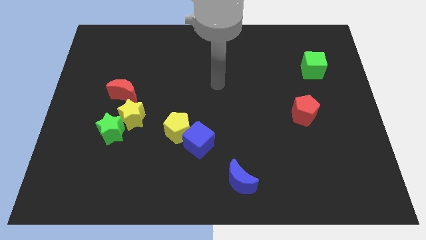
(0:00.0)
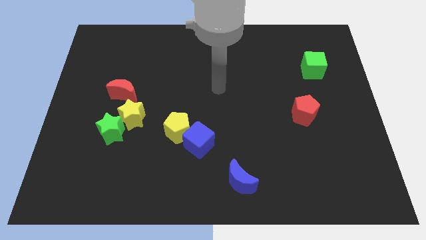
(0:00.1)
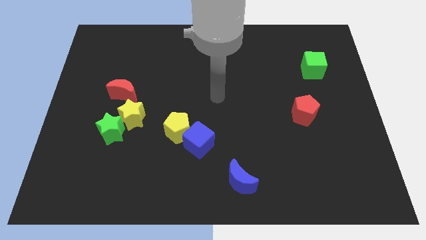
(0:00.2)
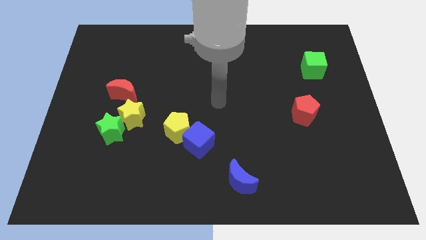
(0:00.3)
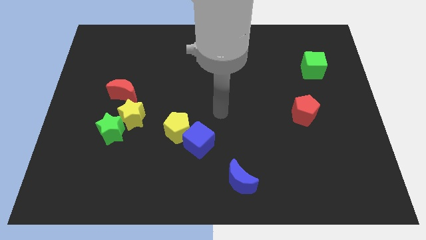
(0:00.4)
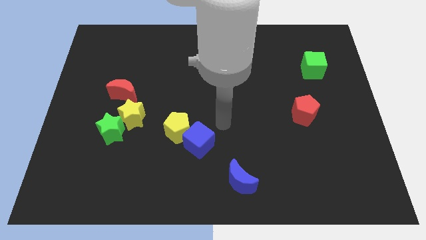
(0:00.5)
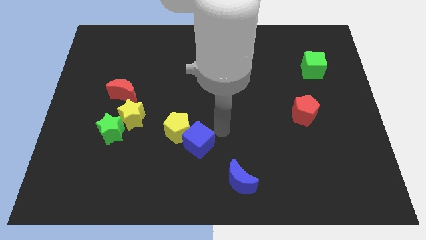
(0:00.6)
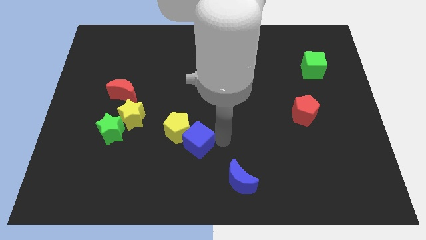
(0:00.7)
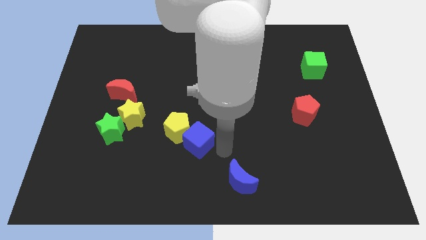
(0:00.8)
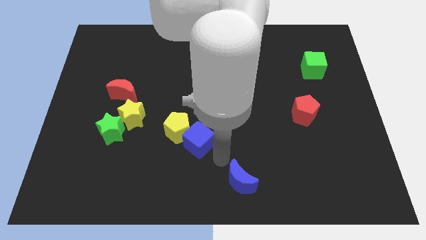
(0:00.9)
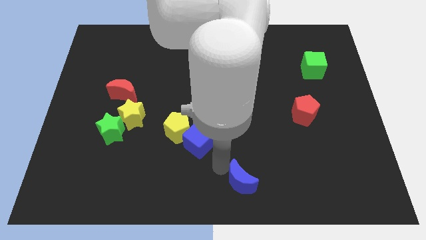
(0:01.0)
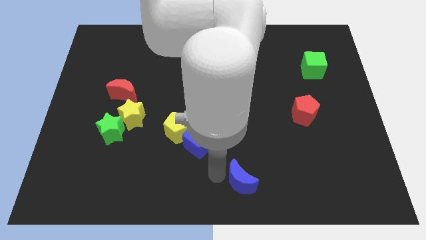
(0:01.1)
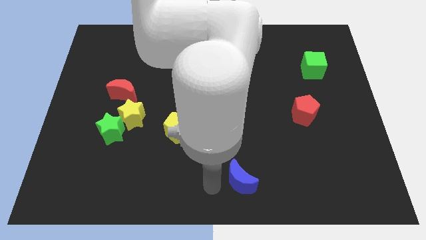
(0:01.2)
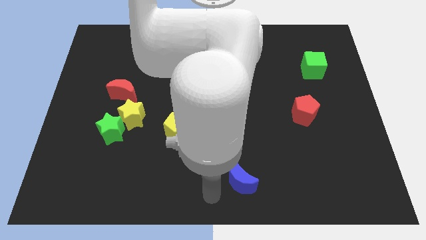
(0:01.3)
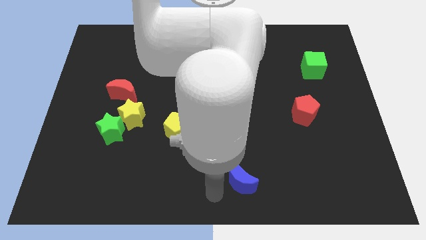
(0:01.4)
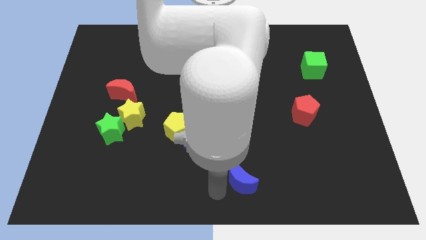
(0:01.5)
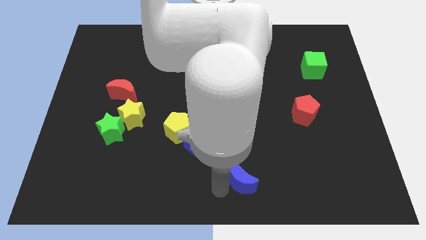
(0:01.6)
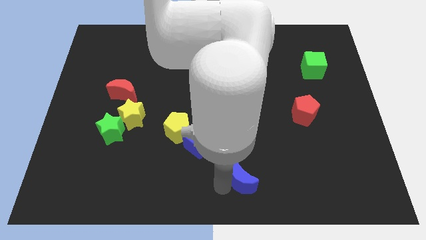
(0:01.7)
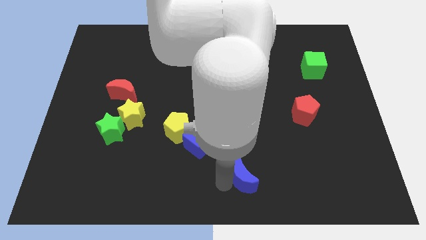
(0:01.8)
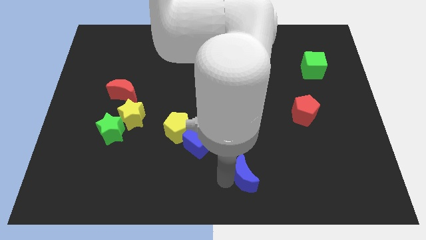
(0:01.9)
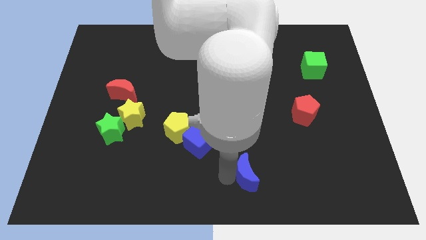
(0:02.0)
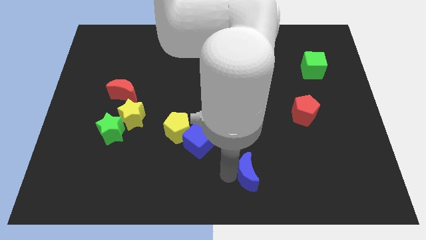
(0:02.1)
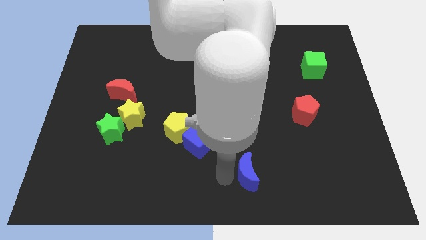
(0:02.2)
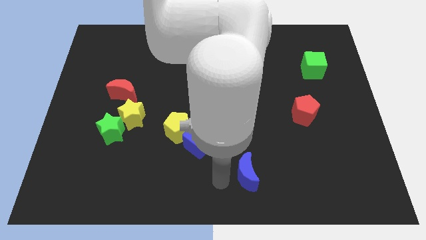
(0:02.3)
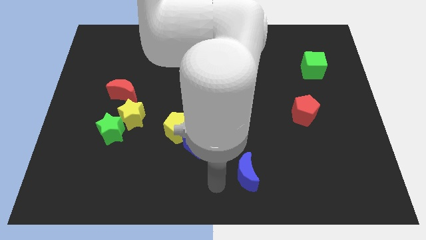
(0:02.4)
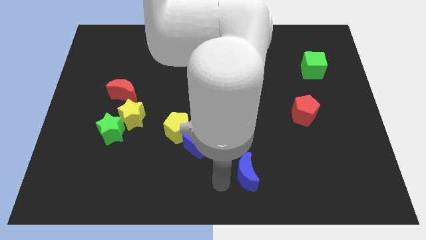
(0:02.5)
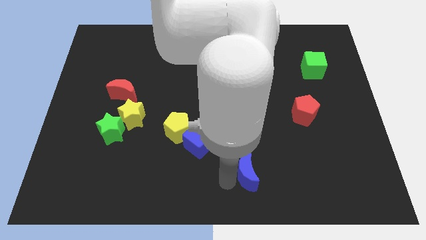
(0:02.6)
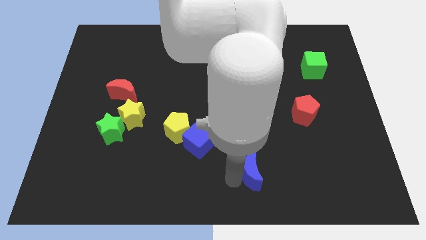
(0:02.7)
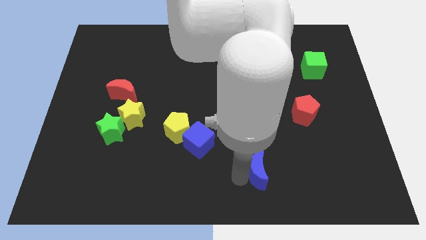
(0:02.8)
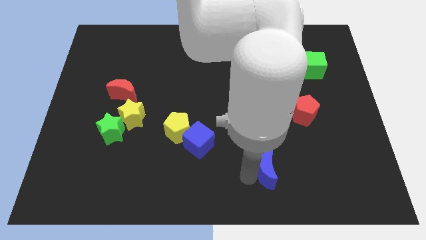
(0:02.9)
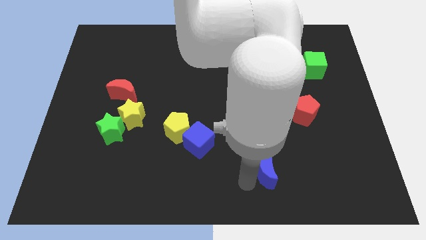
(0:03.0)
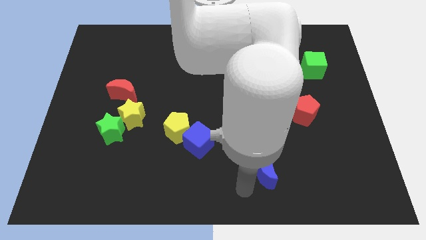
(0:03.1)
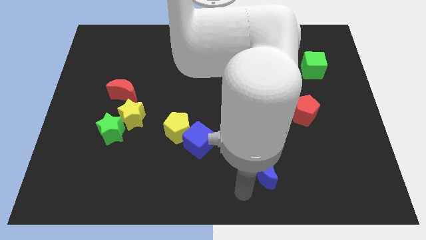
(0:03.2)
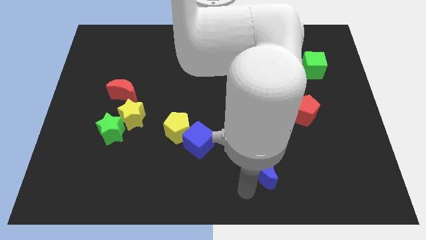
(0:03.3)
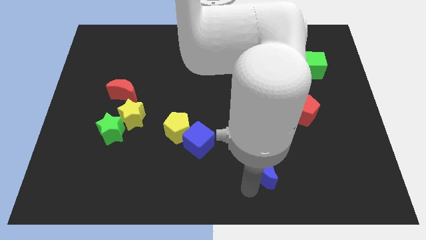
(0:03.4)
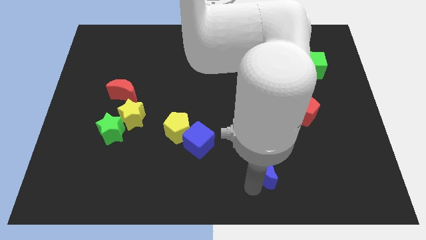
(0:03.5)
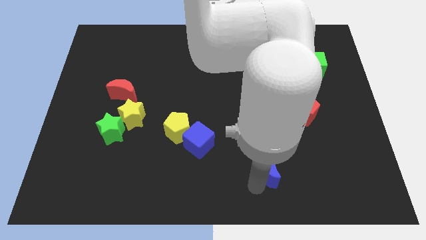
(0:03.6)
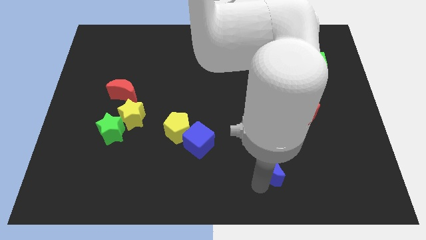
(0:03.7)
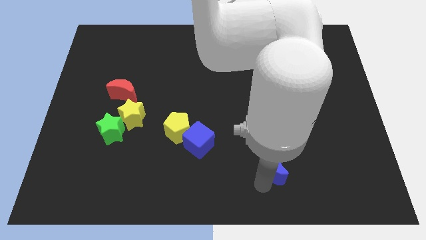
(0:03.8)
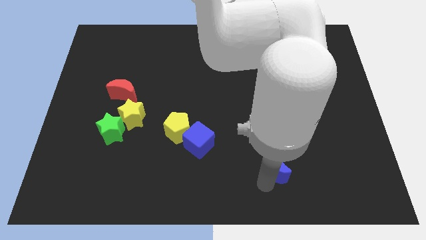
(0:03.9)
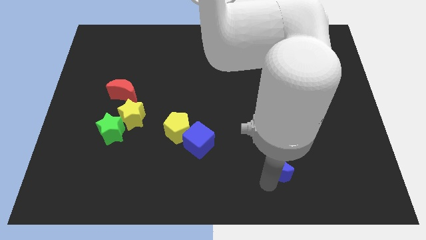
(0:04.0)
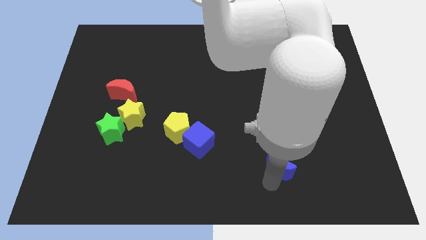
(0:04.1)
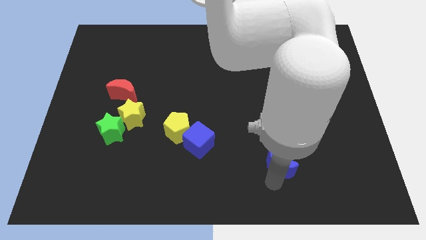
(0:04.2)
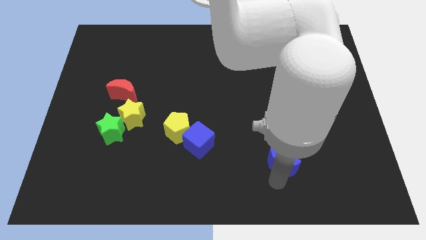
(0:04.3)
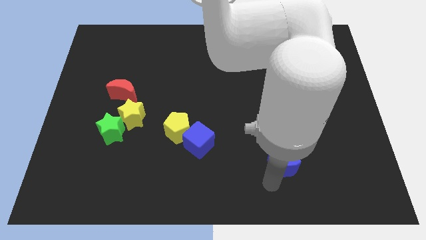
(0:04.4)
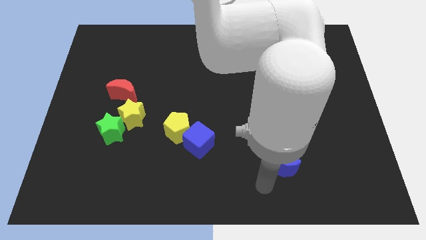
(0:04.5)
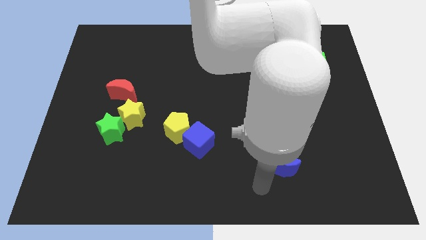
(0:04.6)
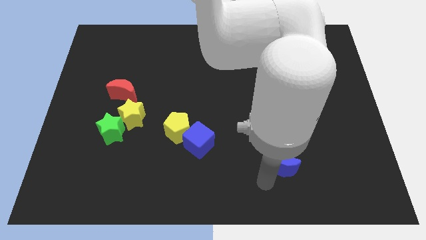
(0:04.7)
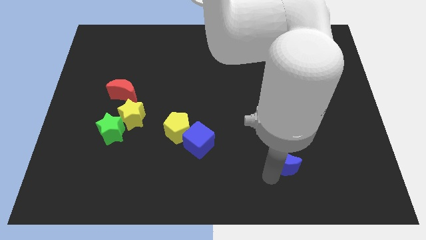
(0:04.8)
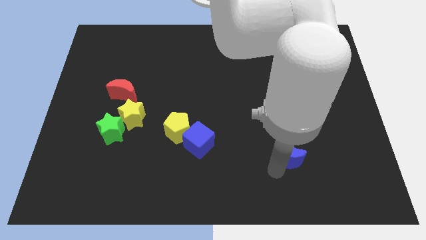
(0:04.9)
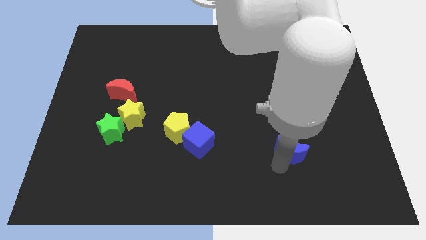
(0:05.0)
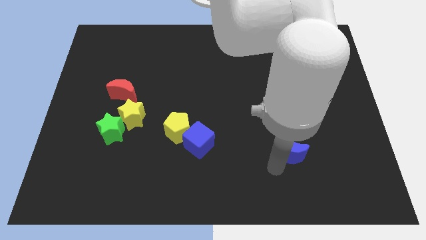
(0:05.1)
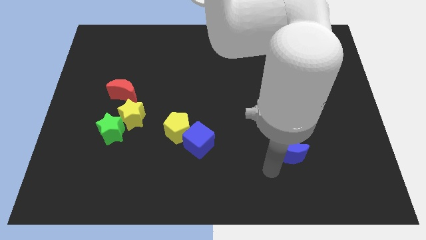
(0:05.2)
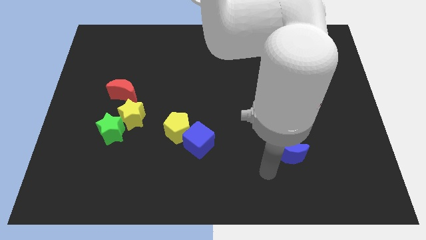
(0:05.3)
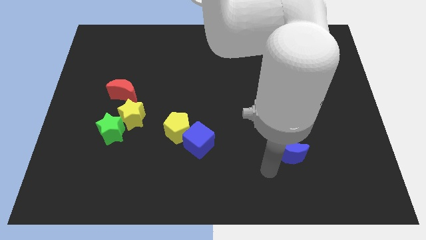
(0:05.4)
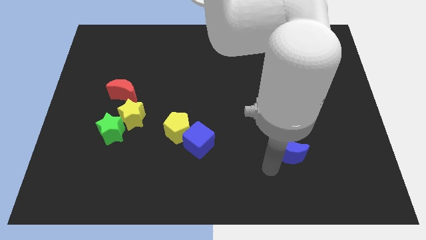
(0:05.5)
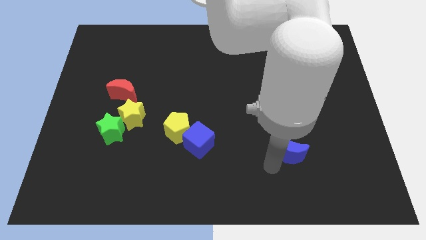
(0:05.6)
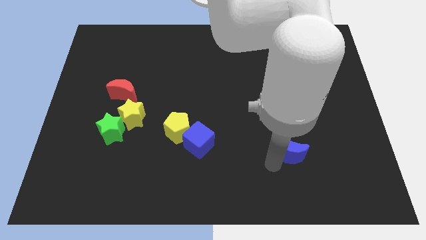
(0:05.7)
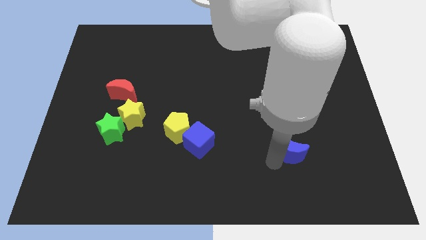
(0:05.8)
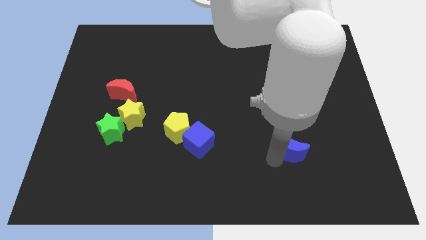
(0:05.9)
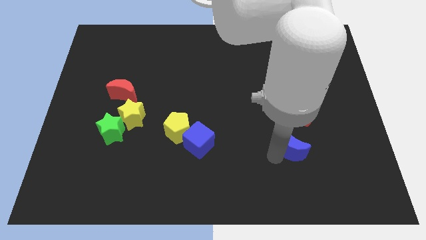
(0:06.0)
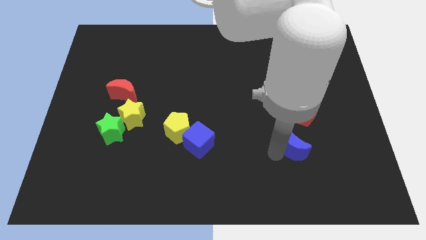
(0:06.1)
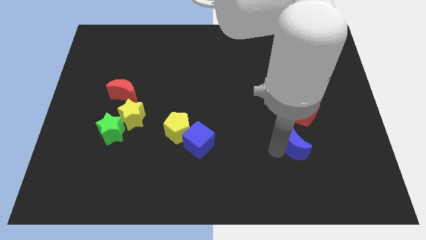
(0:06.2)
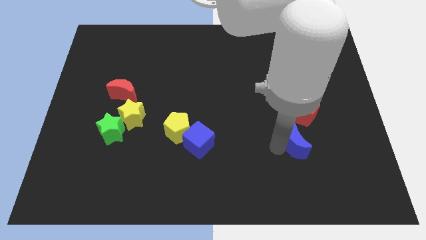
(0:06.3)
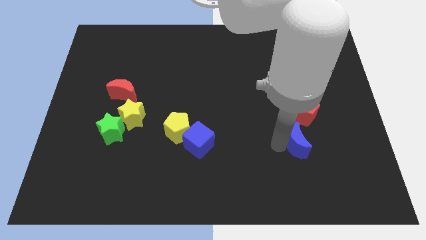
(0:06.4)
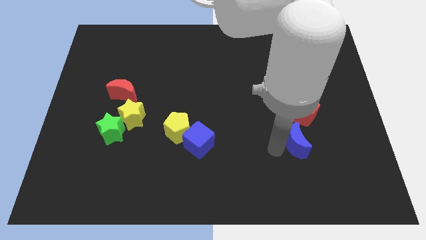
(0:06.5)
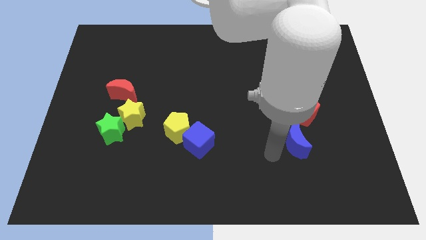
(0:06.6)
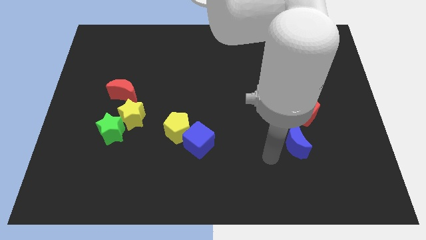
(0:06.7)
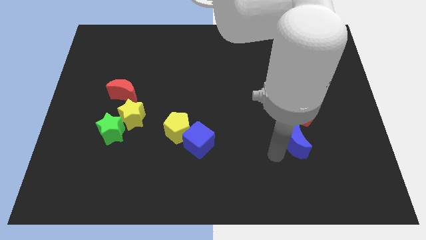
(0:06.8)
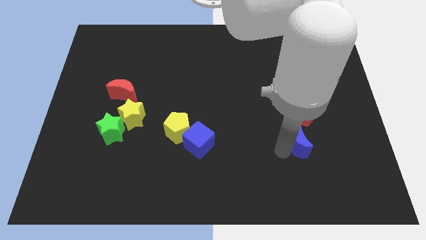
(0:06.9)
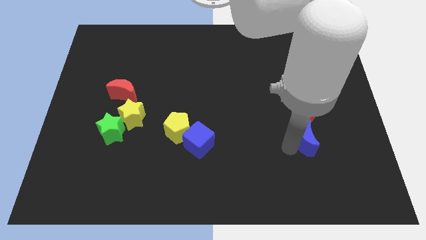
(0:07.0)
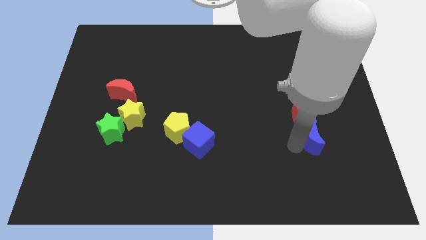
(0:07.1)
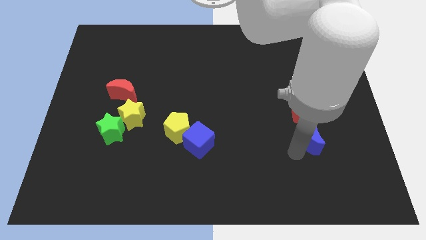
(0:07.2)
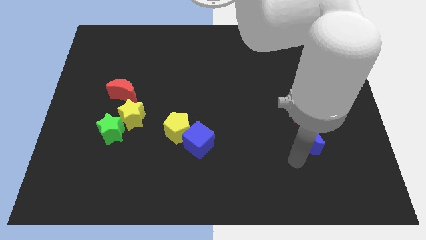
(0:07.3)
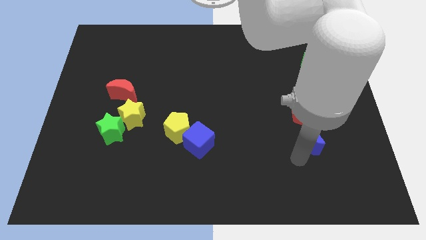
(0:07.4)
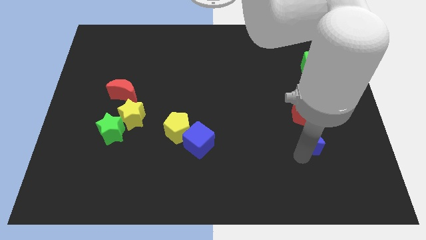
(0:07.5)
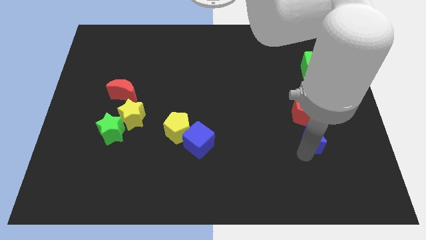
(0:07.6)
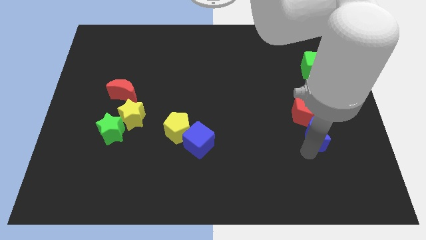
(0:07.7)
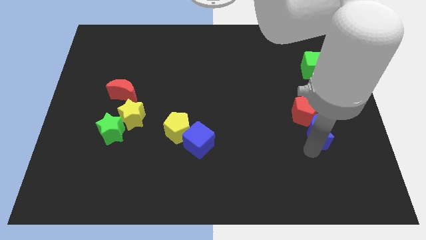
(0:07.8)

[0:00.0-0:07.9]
move the blue moon upwards and then right
